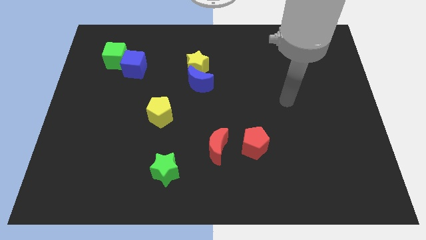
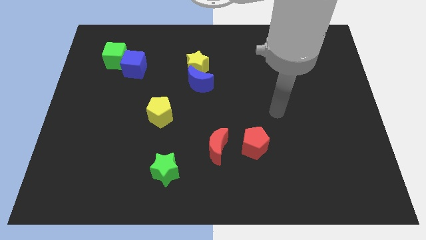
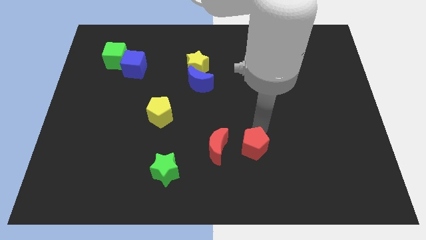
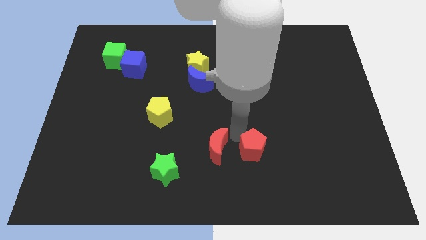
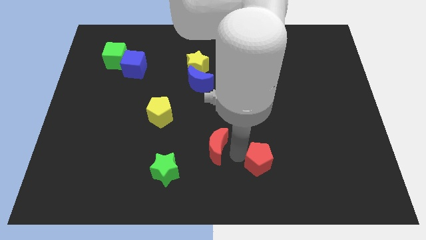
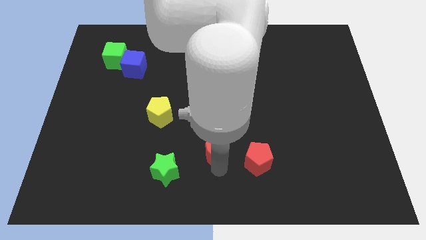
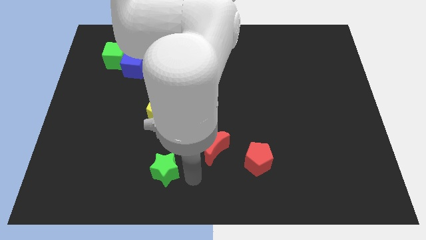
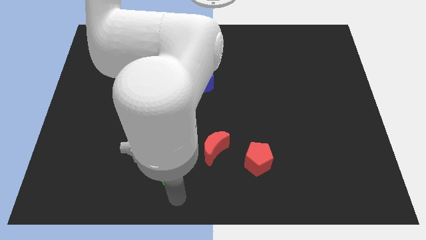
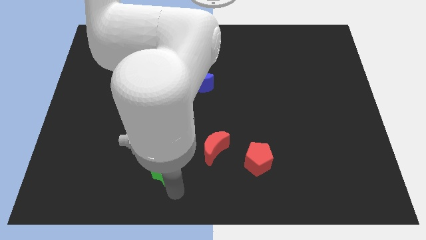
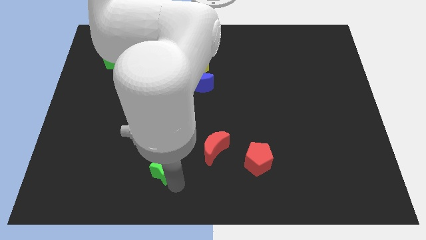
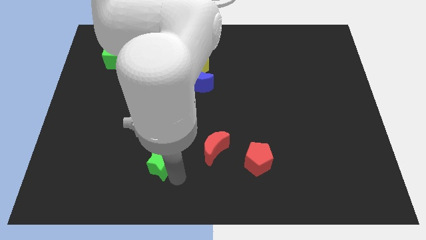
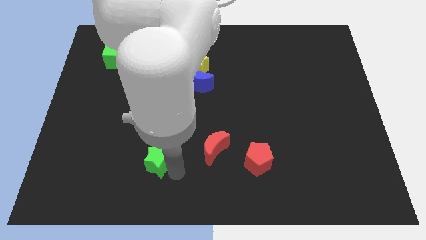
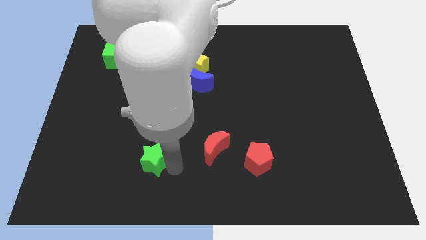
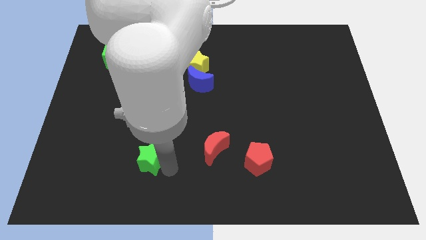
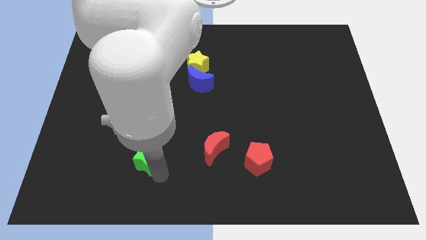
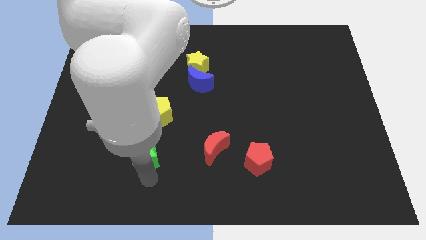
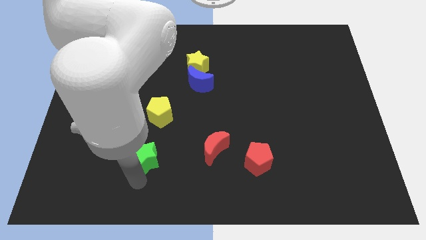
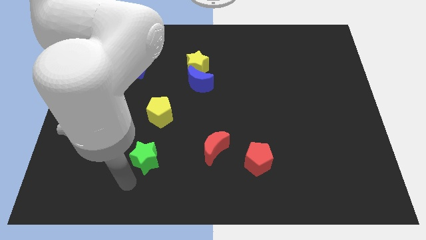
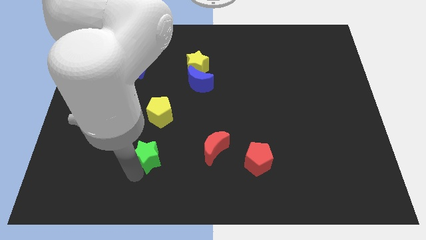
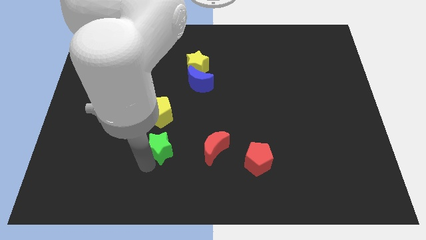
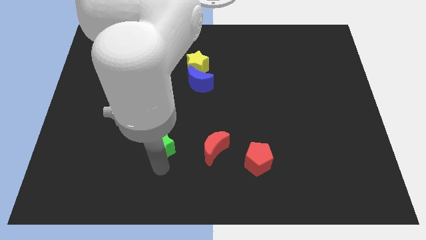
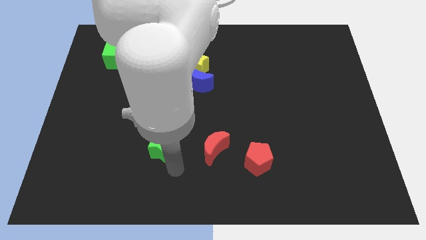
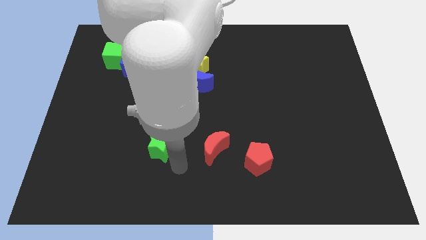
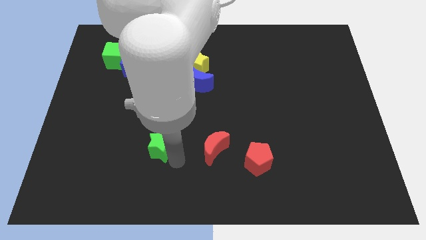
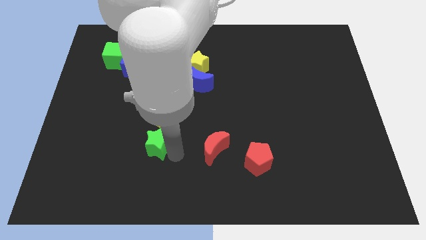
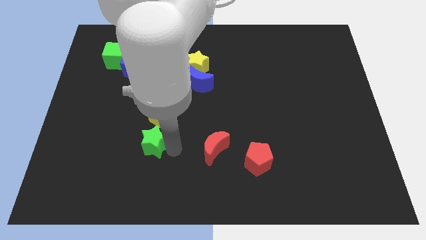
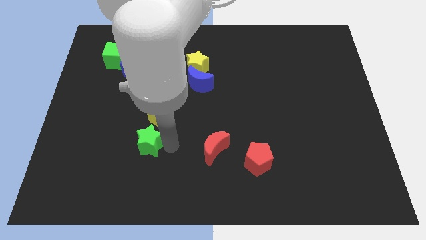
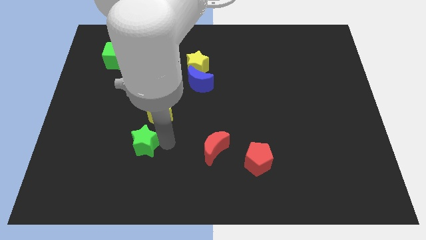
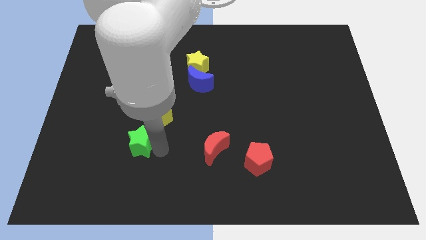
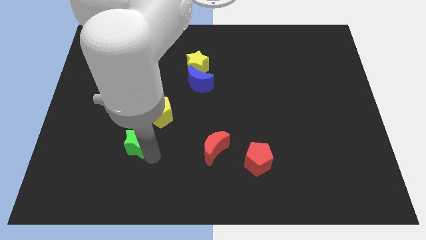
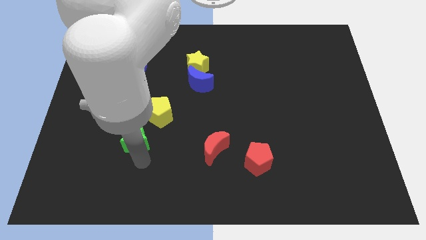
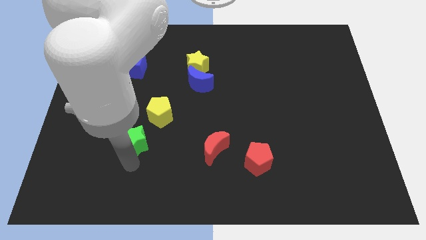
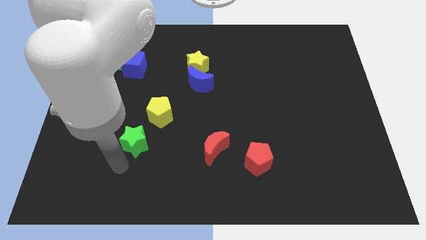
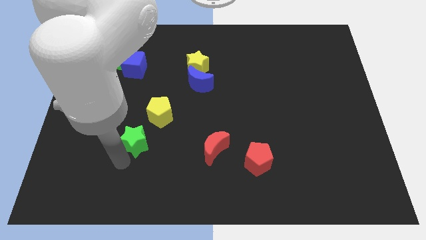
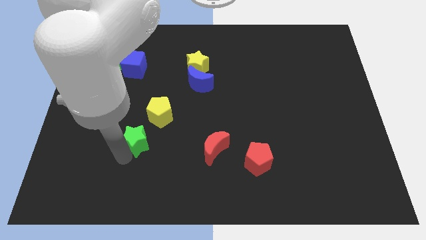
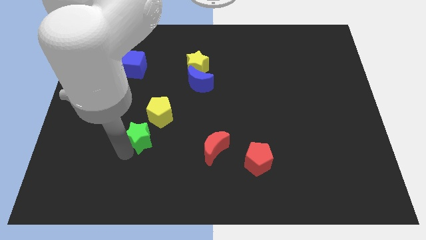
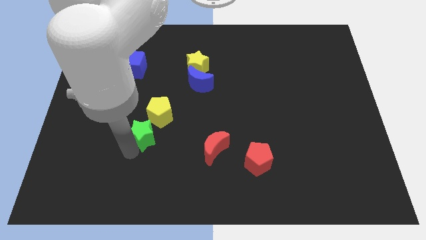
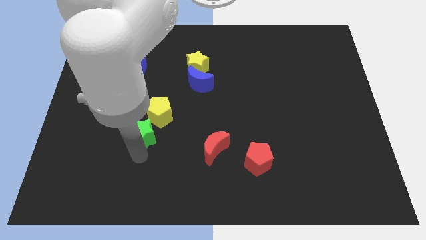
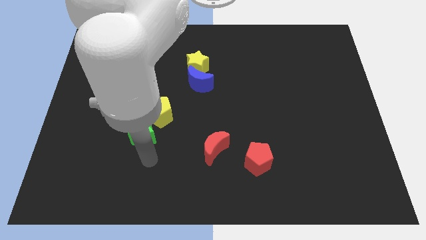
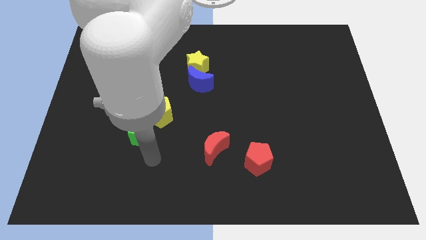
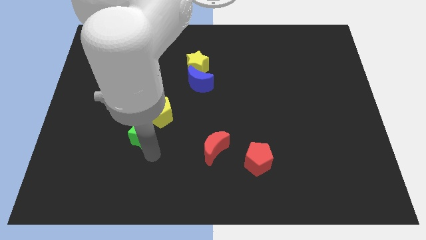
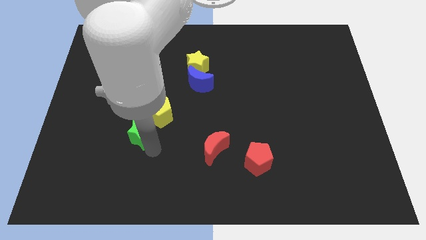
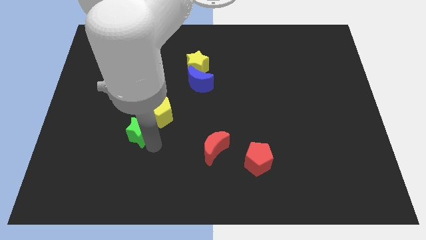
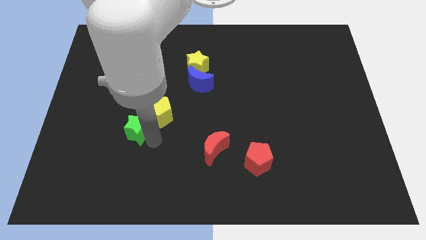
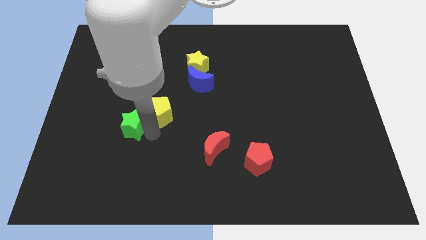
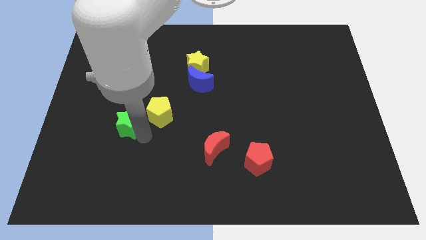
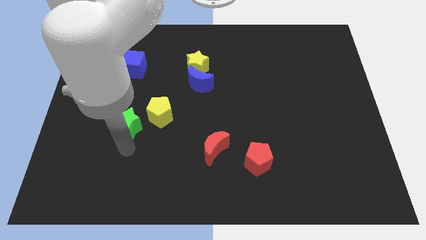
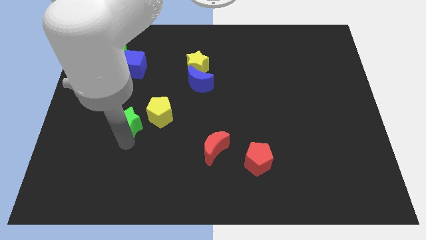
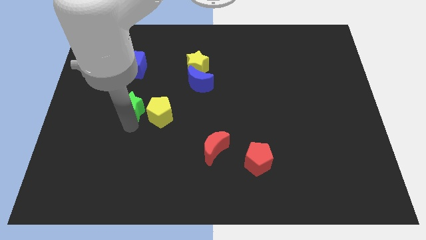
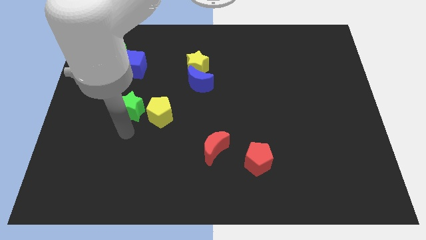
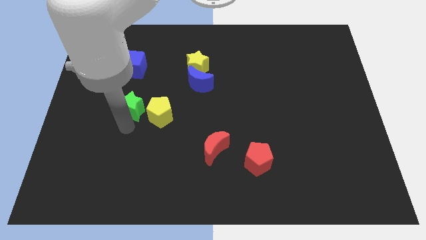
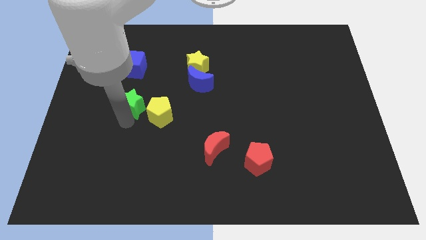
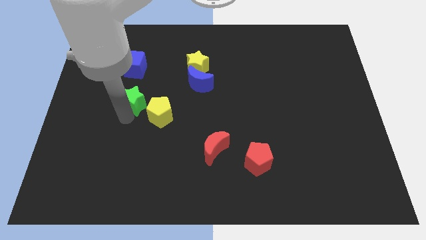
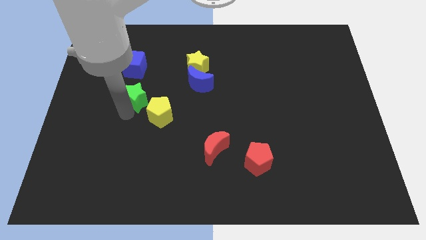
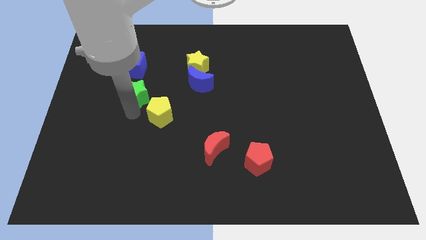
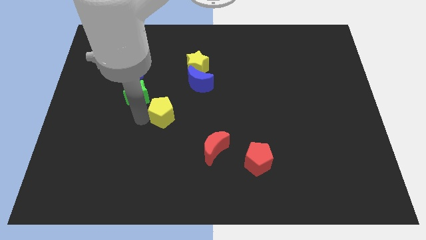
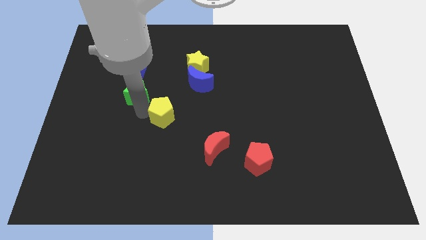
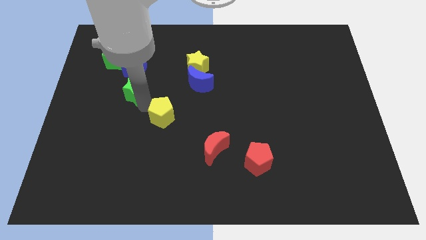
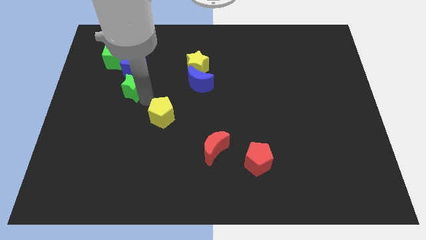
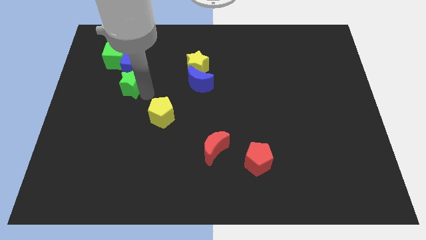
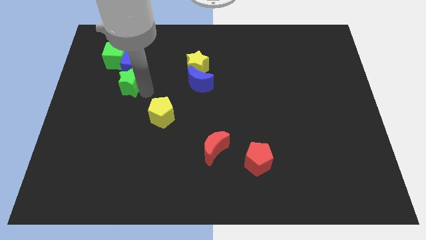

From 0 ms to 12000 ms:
move the green star close to the blue cube

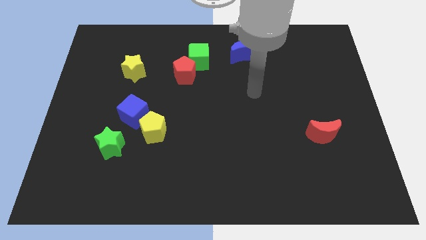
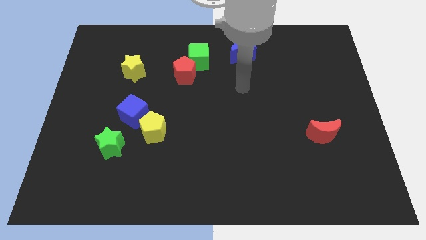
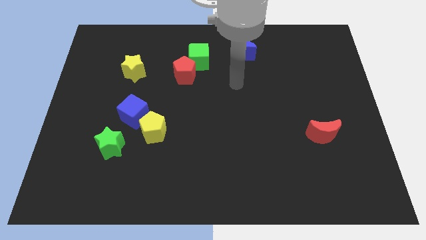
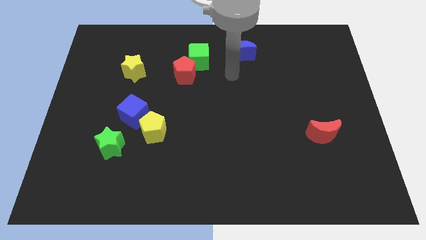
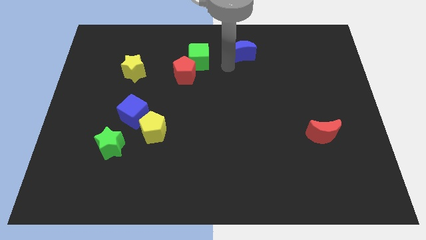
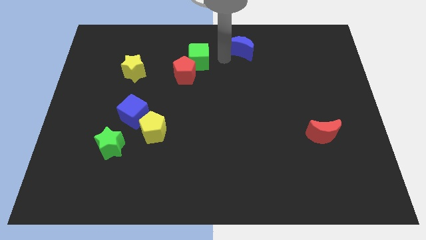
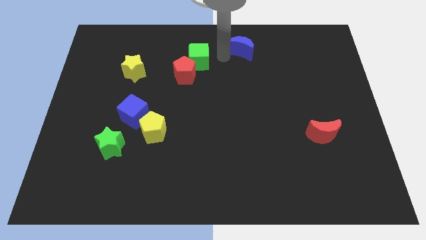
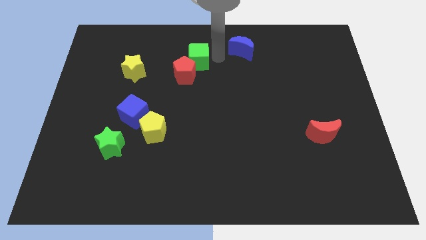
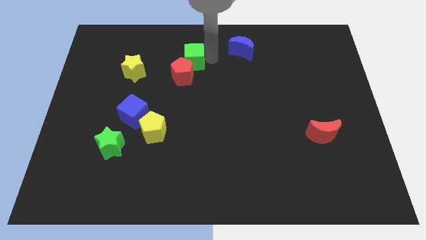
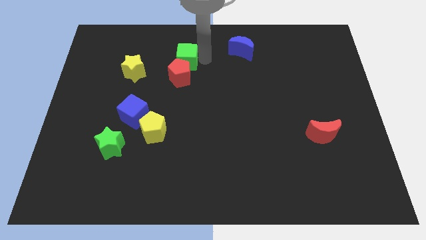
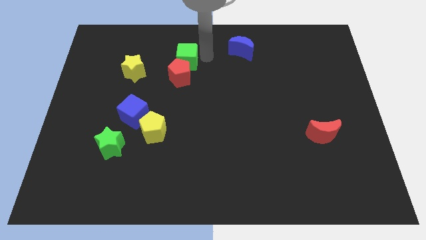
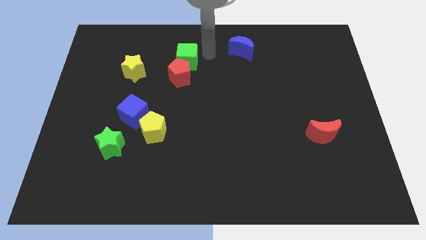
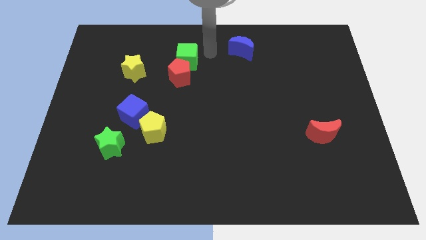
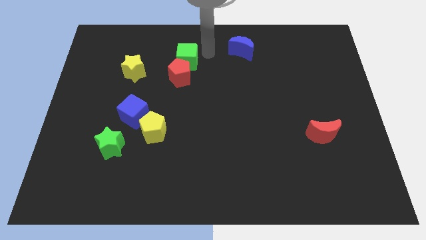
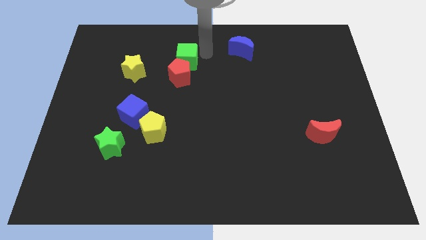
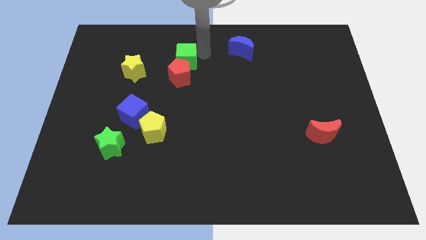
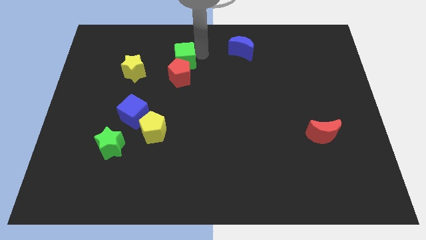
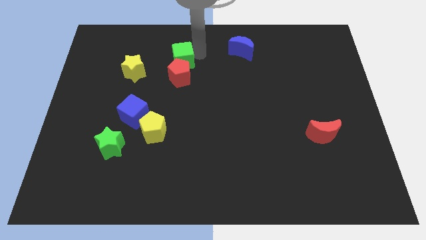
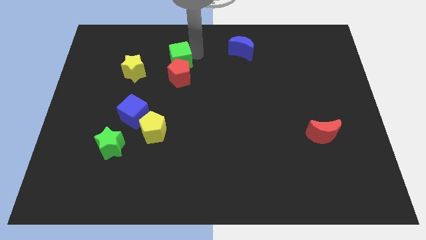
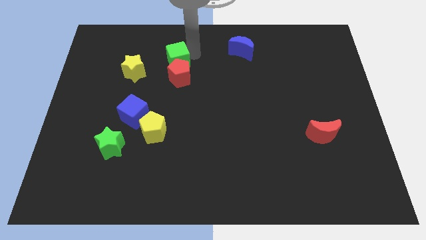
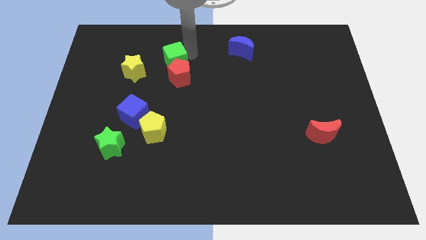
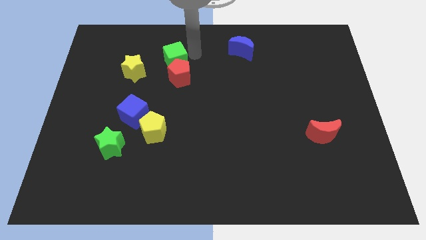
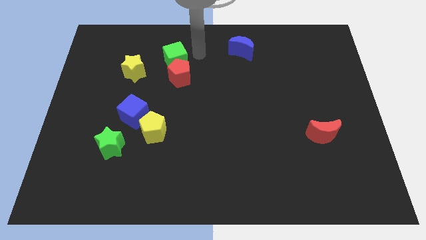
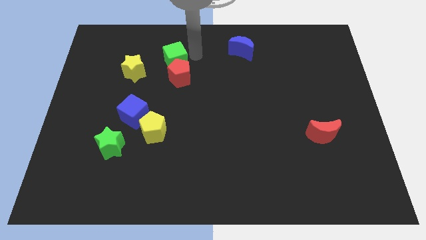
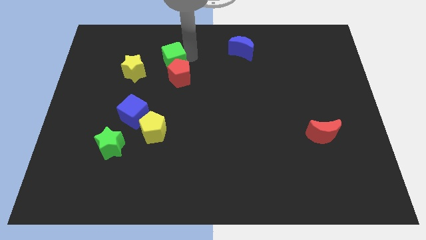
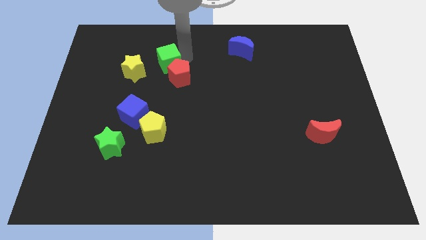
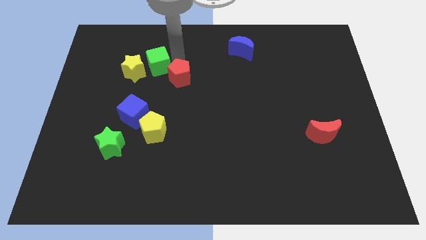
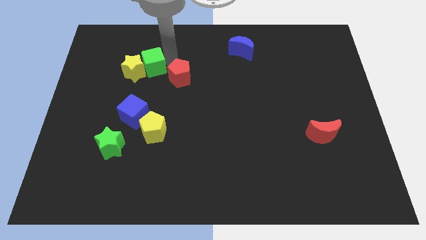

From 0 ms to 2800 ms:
move the green cube close to the yellow star
